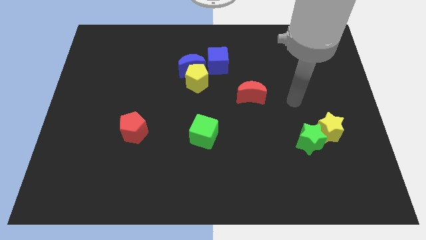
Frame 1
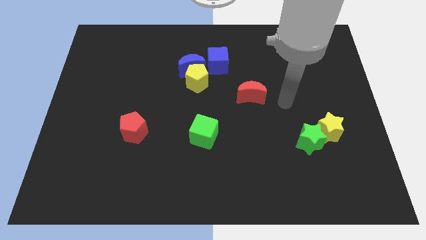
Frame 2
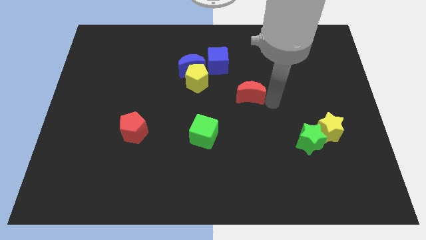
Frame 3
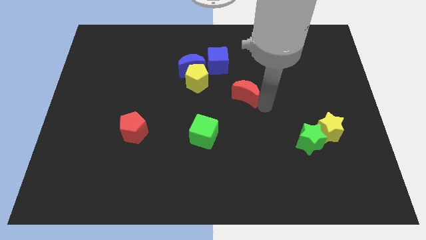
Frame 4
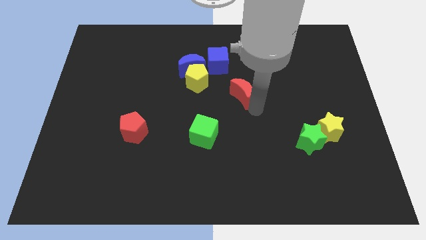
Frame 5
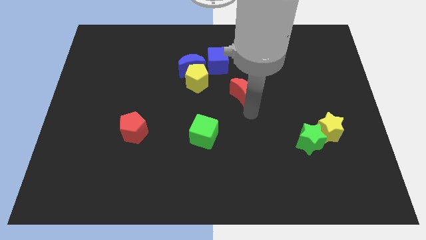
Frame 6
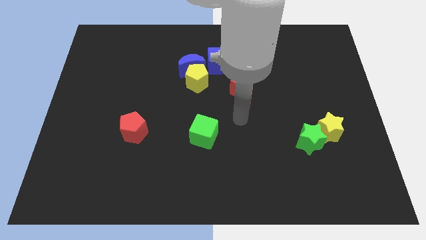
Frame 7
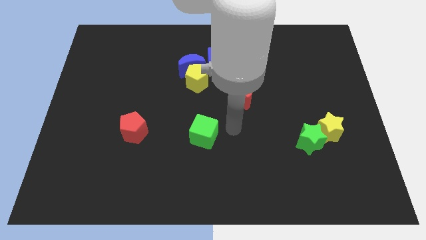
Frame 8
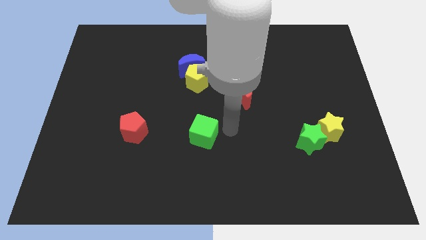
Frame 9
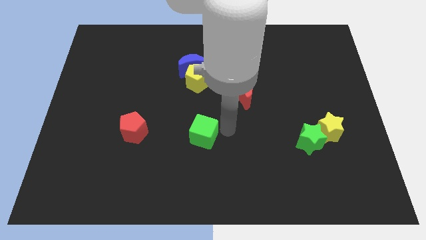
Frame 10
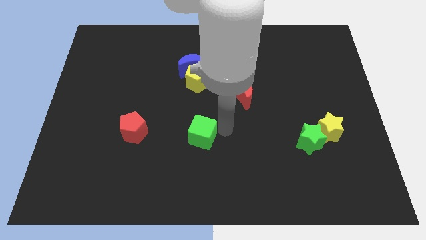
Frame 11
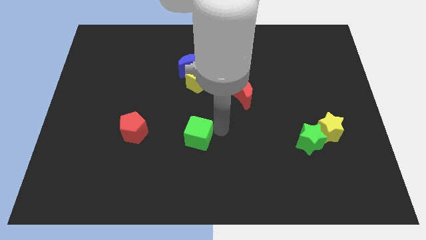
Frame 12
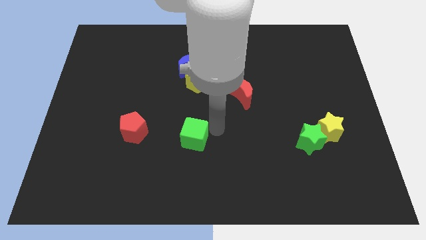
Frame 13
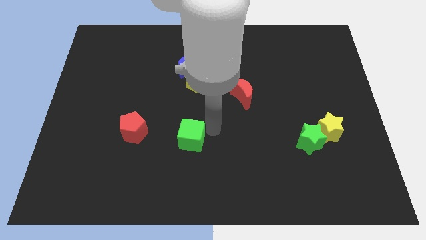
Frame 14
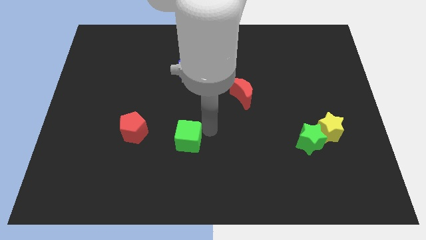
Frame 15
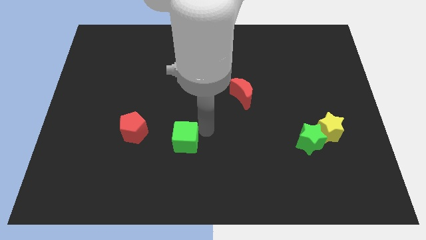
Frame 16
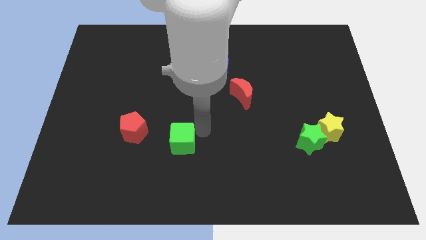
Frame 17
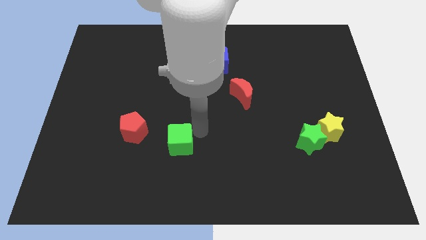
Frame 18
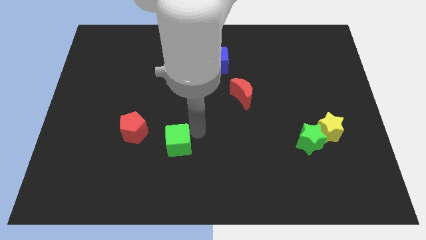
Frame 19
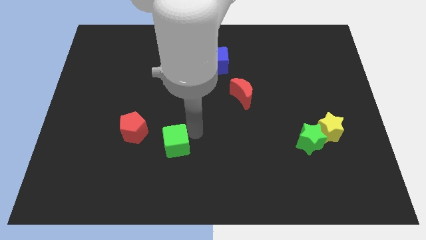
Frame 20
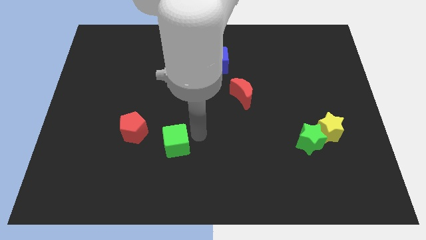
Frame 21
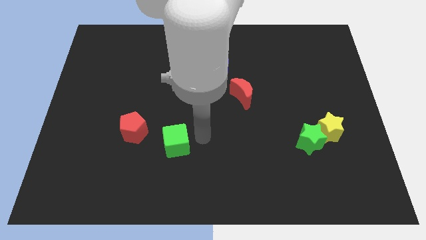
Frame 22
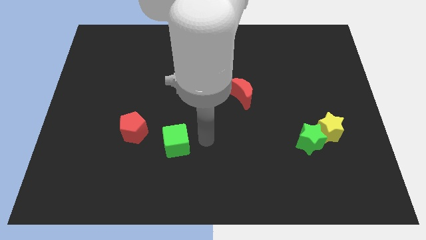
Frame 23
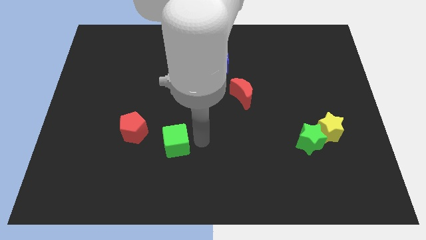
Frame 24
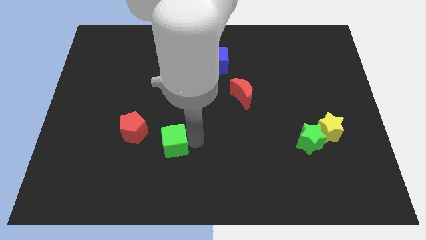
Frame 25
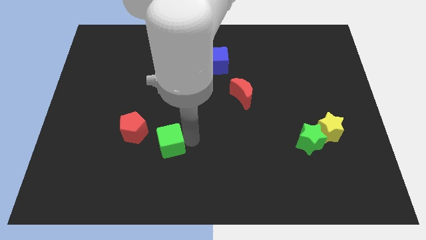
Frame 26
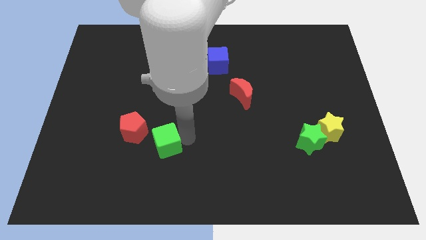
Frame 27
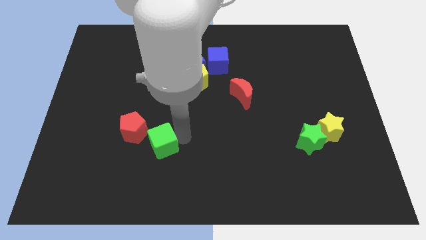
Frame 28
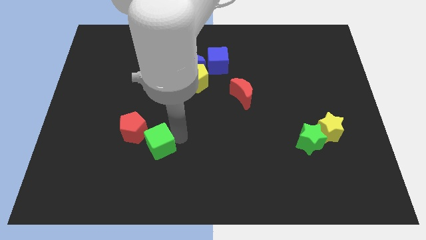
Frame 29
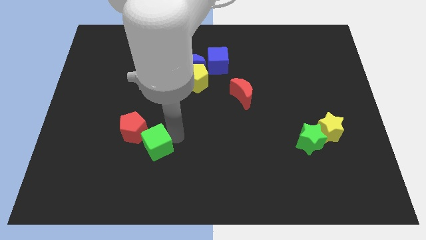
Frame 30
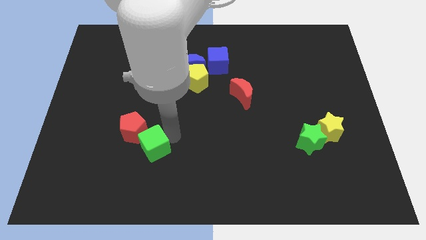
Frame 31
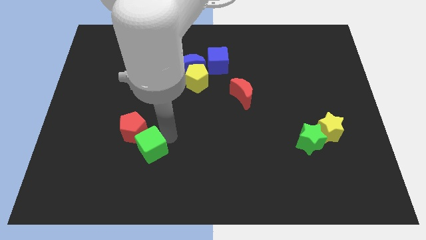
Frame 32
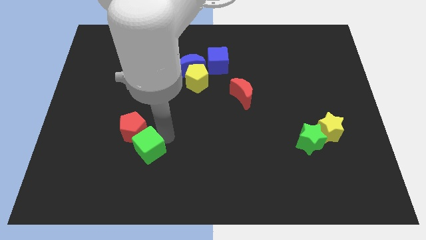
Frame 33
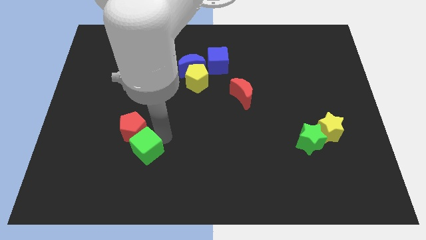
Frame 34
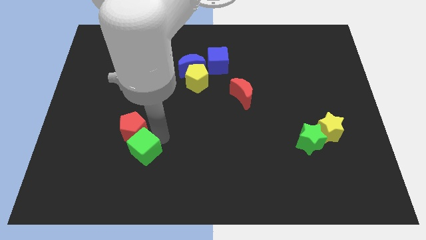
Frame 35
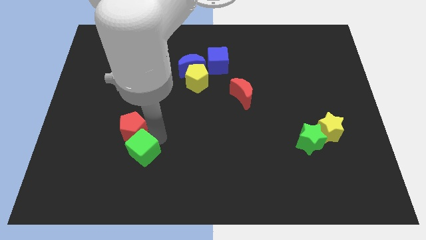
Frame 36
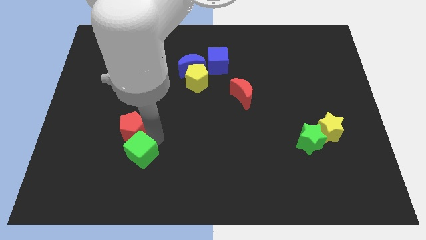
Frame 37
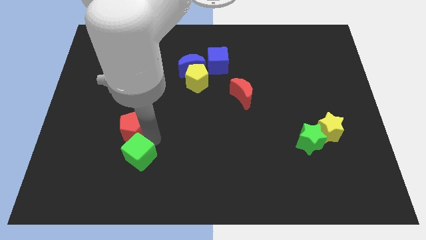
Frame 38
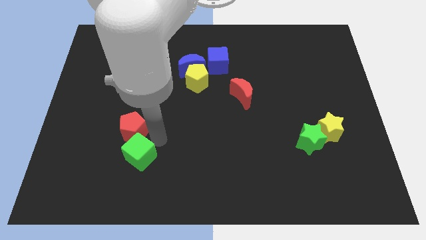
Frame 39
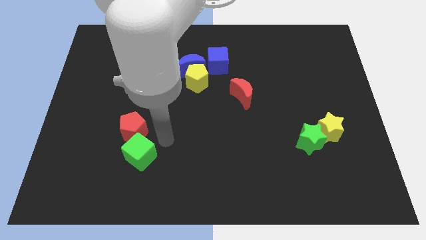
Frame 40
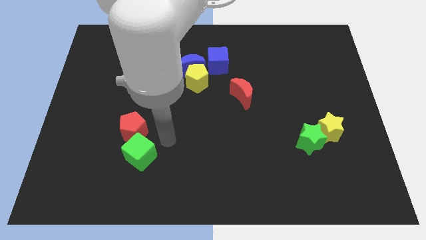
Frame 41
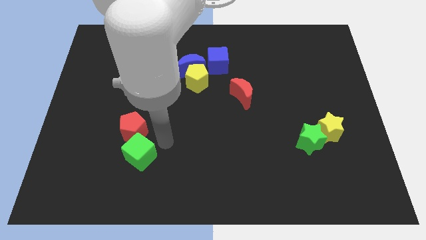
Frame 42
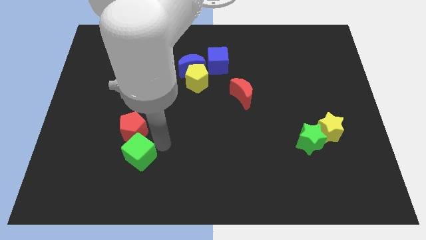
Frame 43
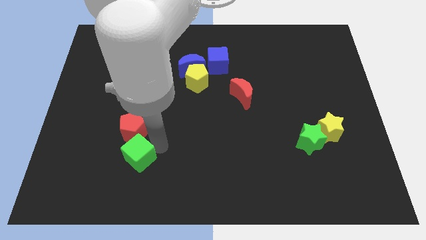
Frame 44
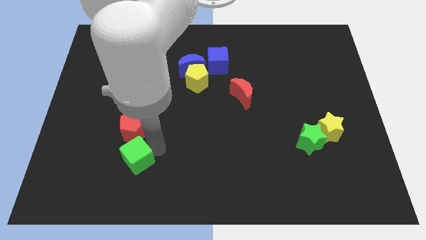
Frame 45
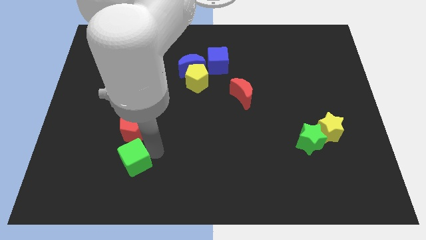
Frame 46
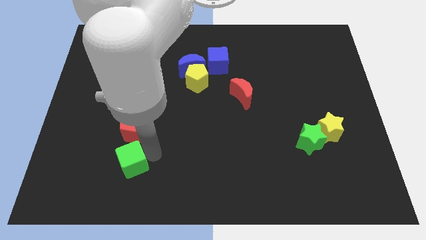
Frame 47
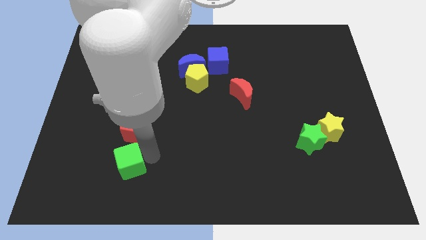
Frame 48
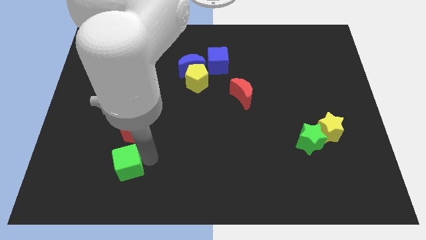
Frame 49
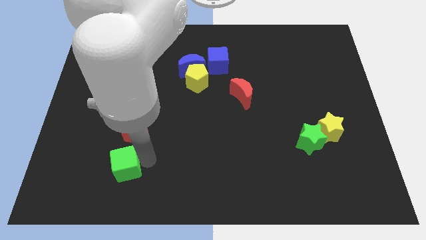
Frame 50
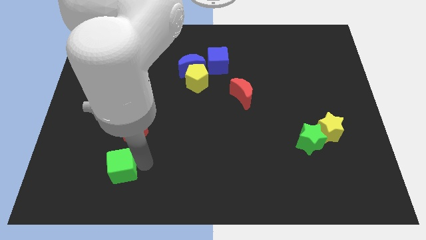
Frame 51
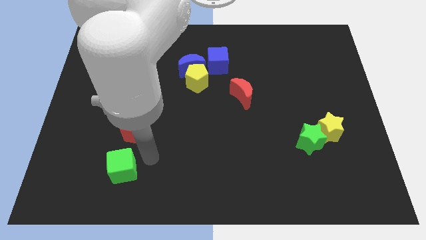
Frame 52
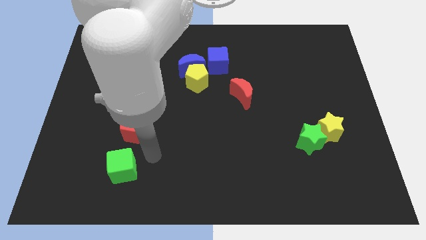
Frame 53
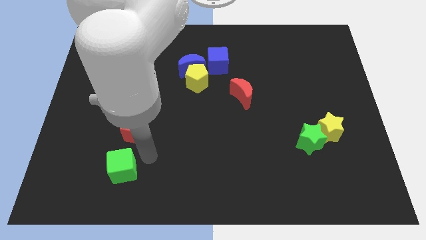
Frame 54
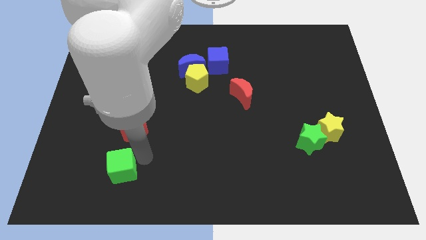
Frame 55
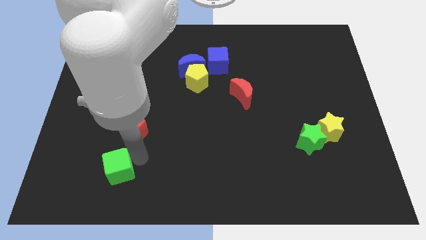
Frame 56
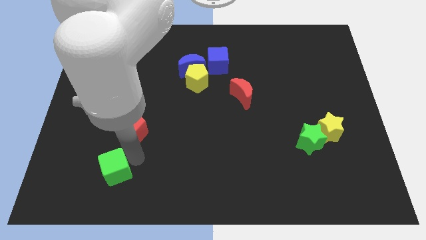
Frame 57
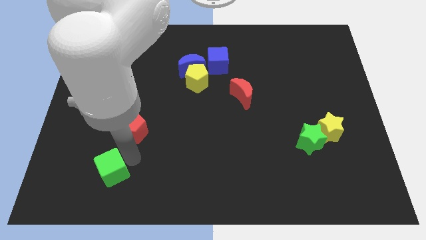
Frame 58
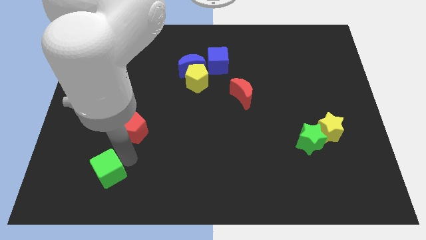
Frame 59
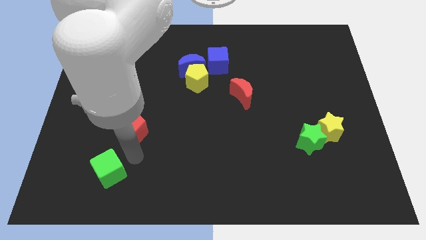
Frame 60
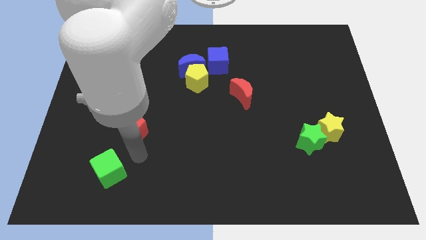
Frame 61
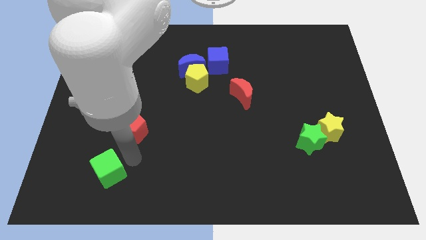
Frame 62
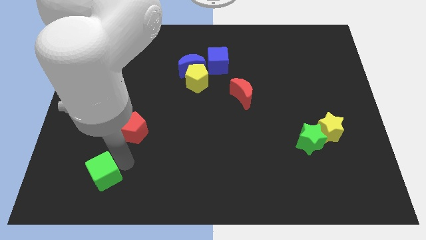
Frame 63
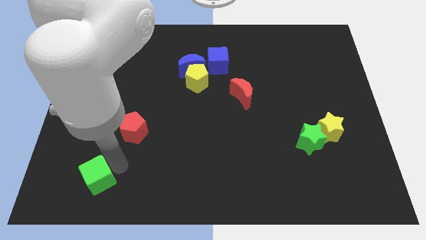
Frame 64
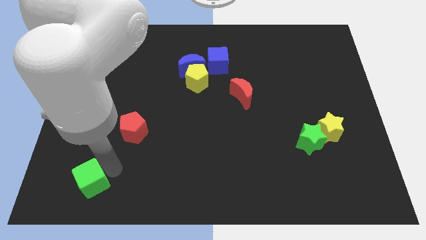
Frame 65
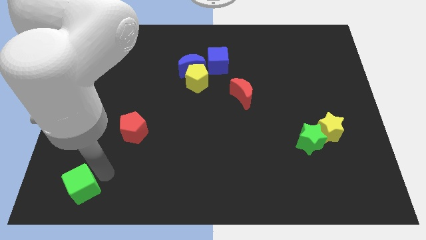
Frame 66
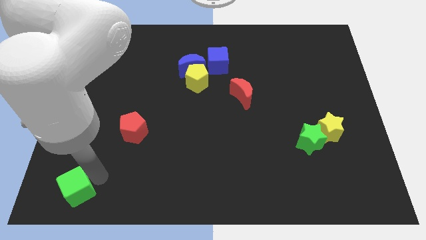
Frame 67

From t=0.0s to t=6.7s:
push the green cube to the bottom left of the board
